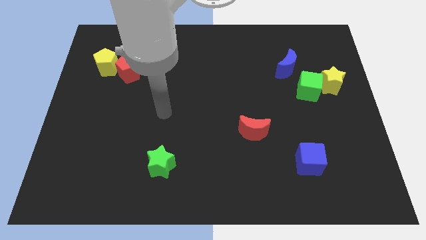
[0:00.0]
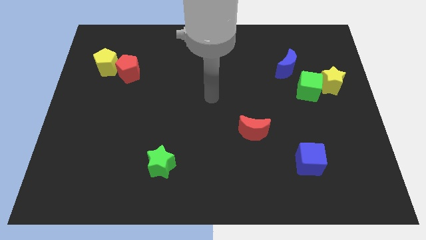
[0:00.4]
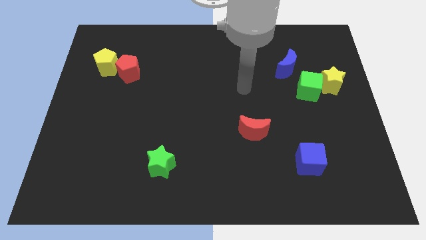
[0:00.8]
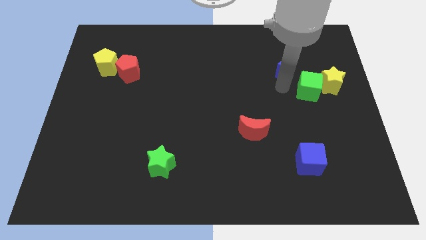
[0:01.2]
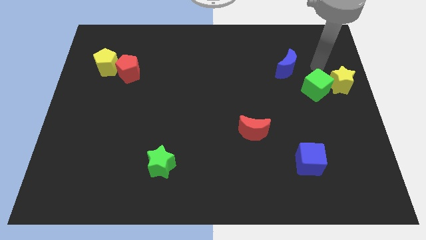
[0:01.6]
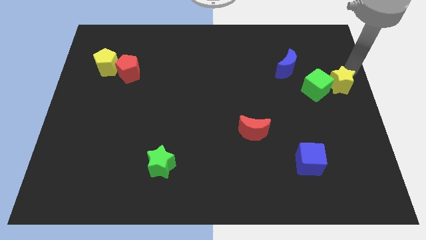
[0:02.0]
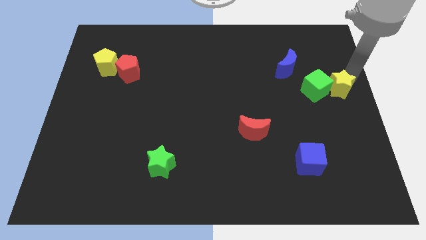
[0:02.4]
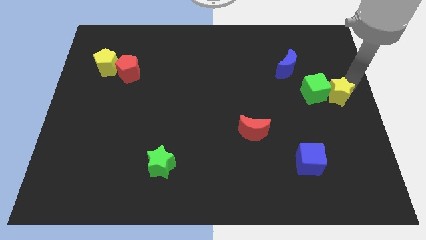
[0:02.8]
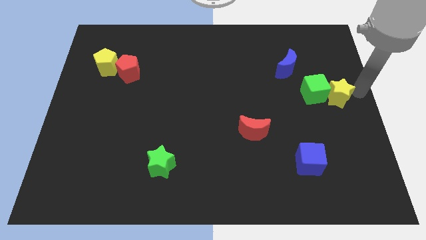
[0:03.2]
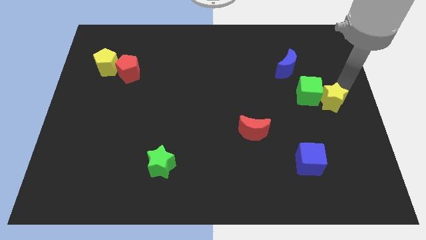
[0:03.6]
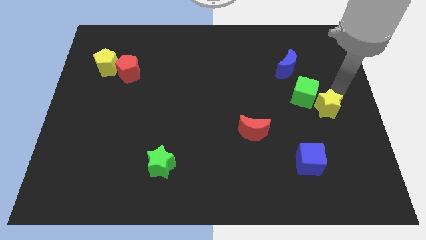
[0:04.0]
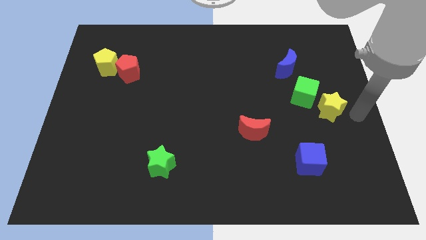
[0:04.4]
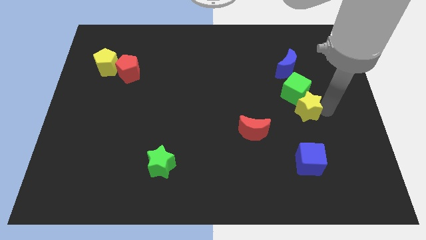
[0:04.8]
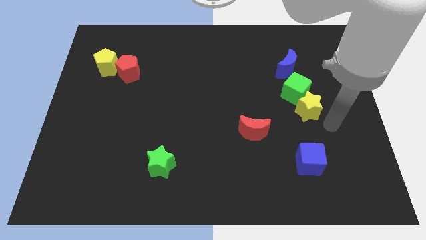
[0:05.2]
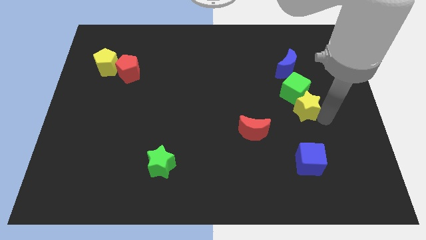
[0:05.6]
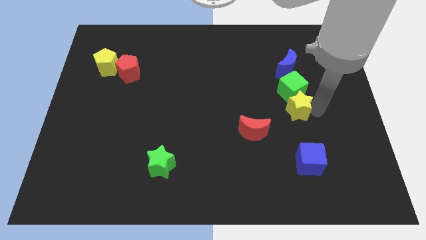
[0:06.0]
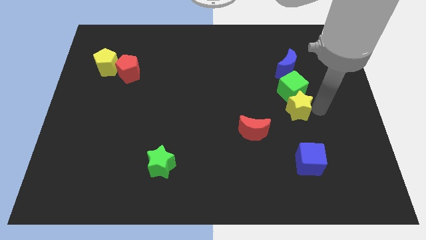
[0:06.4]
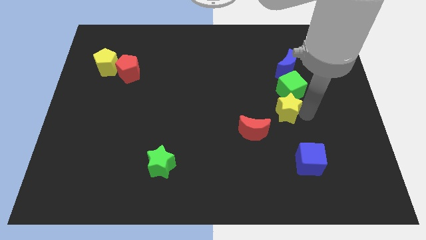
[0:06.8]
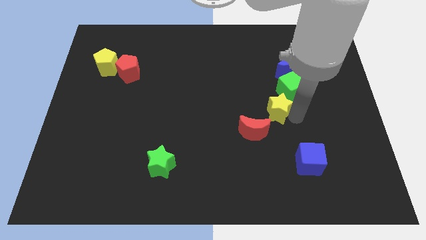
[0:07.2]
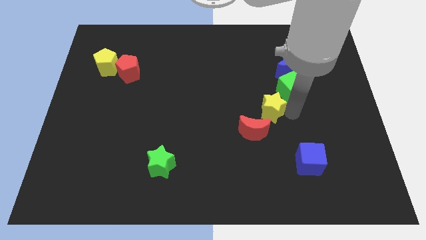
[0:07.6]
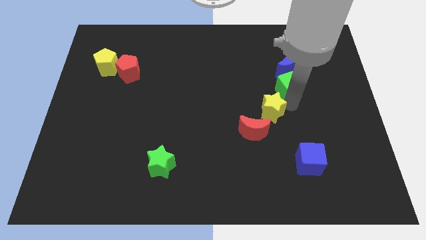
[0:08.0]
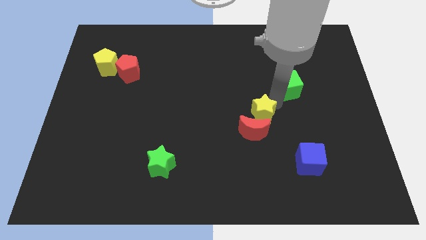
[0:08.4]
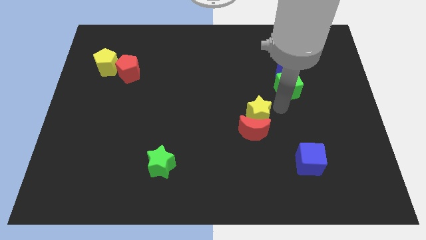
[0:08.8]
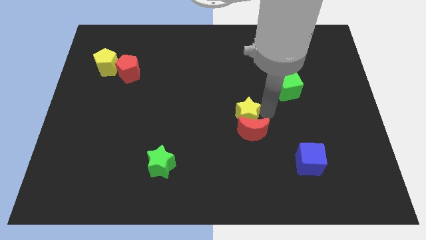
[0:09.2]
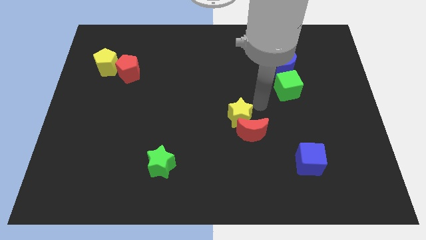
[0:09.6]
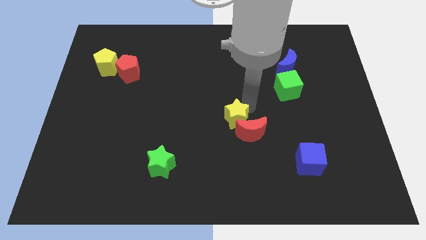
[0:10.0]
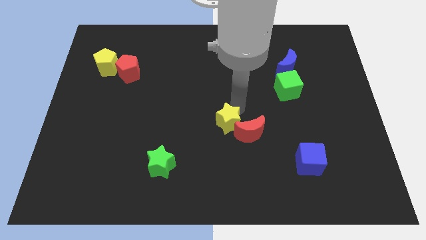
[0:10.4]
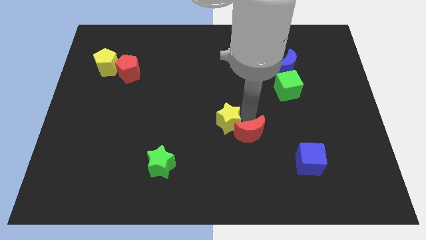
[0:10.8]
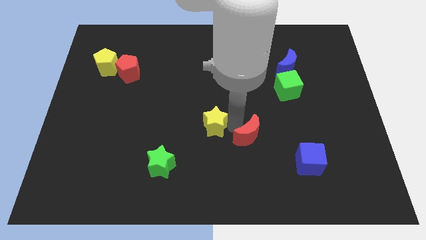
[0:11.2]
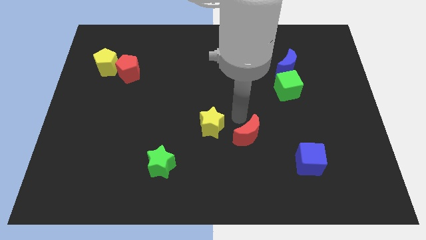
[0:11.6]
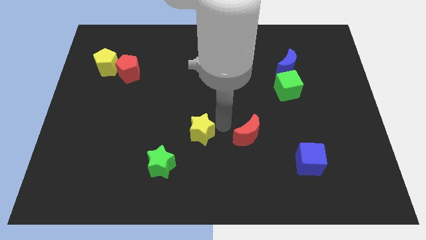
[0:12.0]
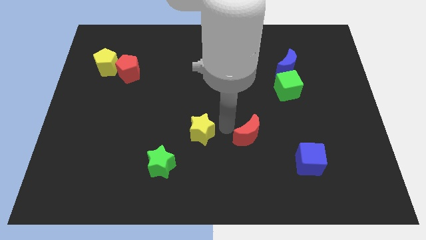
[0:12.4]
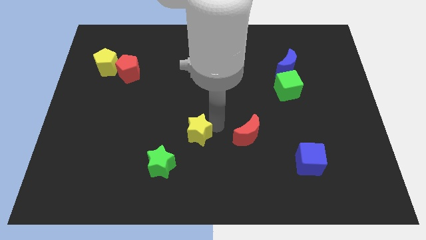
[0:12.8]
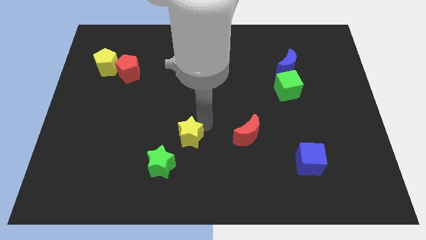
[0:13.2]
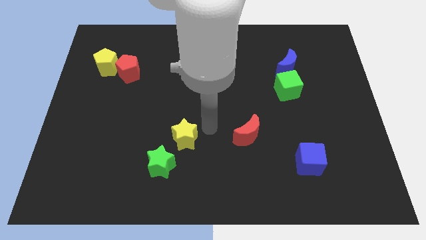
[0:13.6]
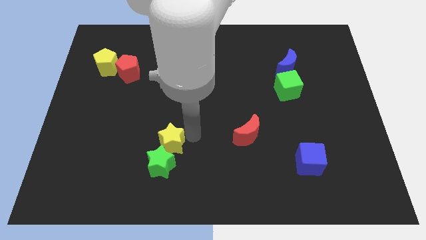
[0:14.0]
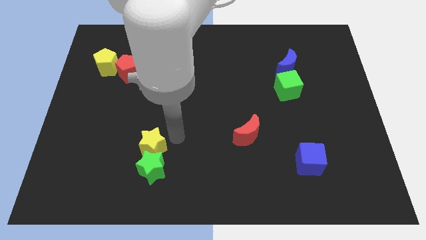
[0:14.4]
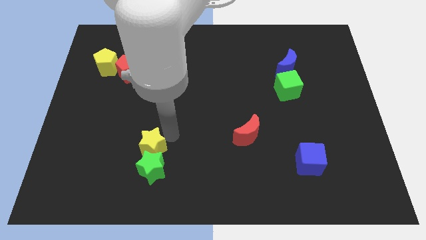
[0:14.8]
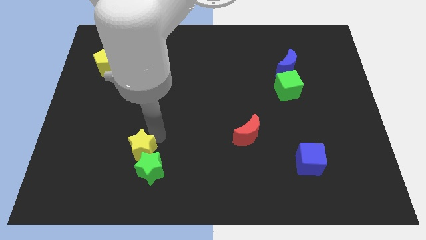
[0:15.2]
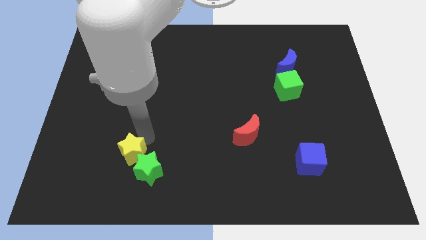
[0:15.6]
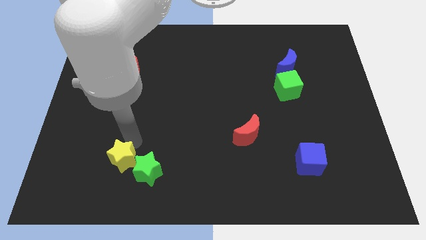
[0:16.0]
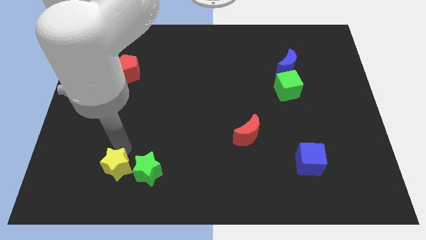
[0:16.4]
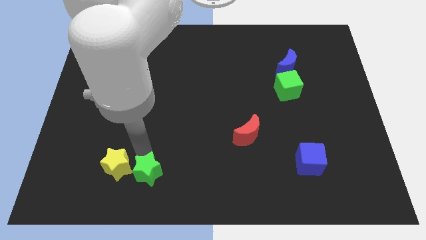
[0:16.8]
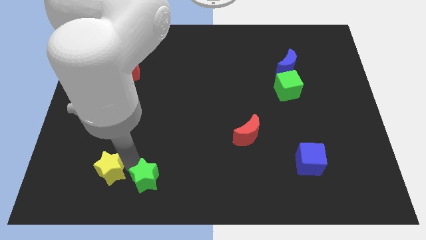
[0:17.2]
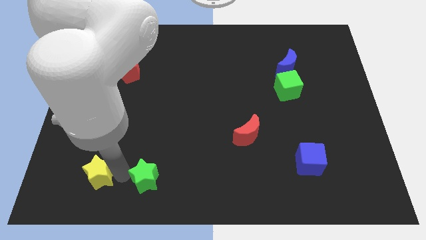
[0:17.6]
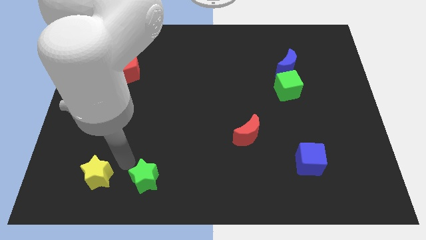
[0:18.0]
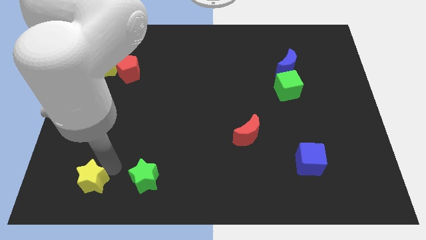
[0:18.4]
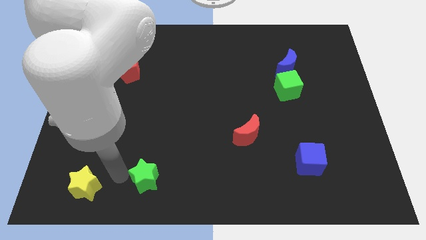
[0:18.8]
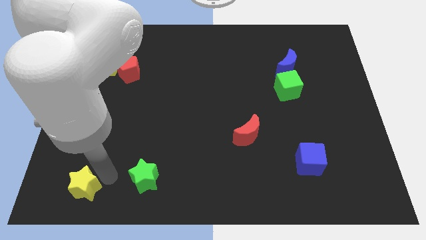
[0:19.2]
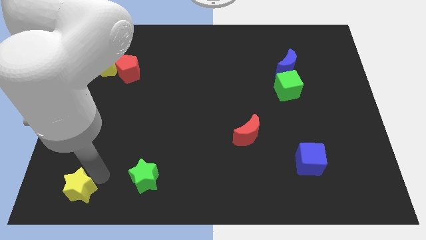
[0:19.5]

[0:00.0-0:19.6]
push the yellow star to the bottom left corner

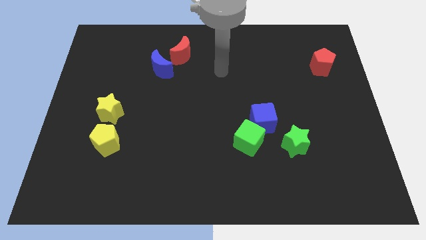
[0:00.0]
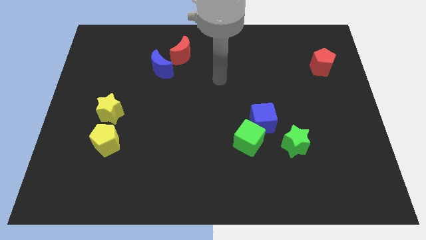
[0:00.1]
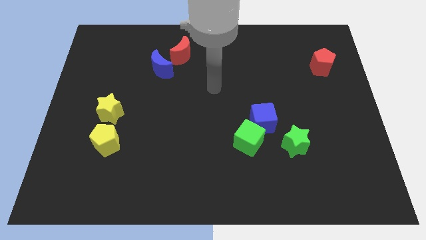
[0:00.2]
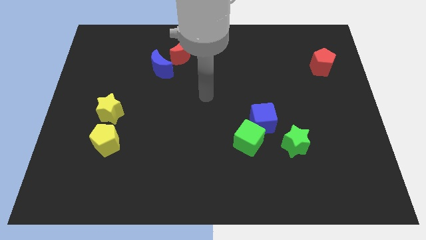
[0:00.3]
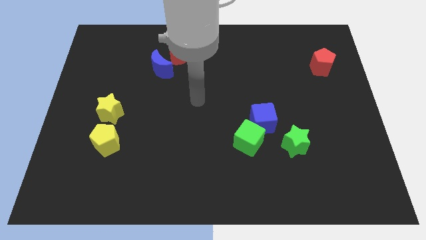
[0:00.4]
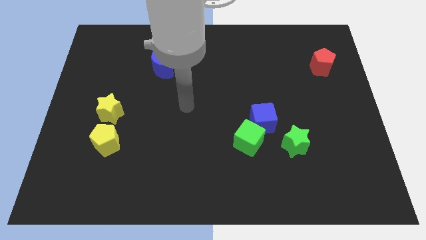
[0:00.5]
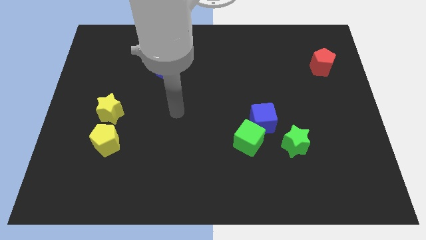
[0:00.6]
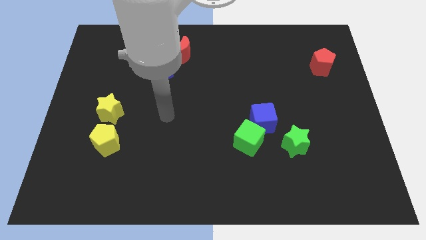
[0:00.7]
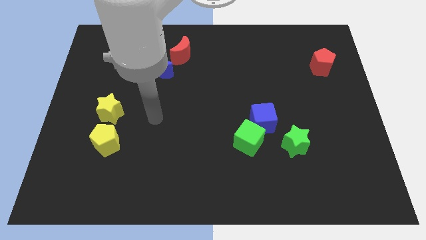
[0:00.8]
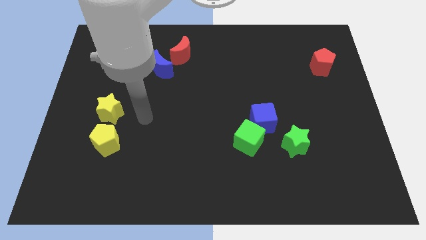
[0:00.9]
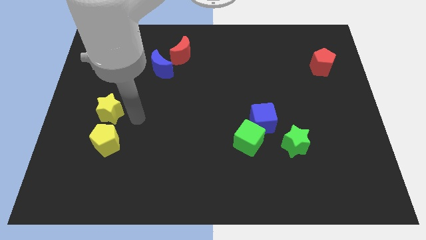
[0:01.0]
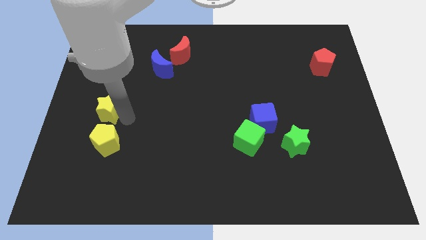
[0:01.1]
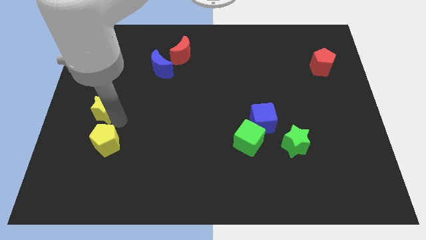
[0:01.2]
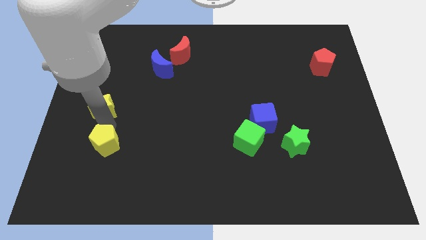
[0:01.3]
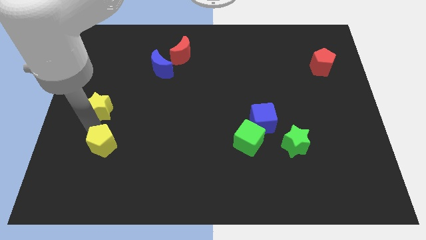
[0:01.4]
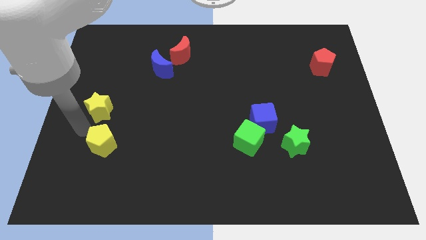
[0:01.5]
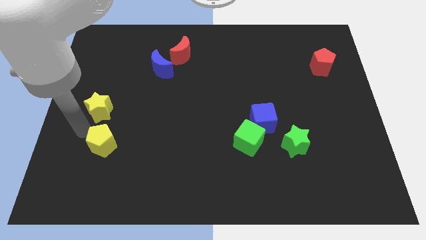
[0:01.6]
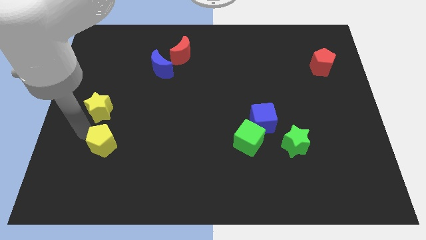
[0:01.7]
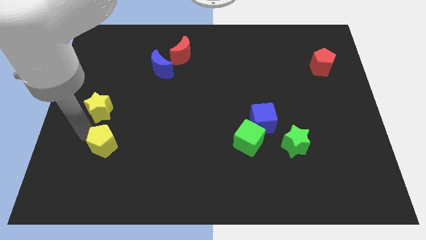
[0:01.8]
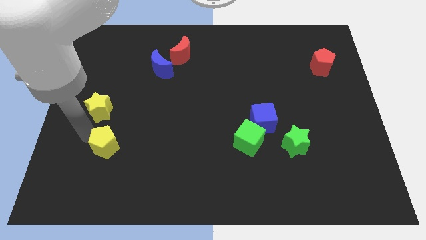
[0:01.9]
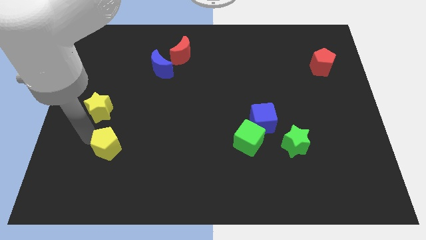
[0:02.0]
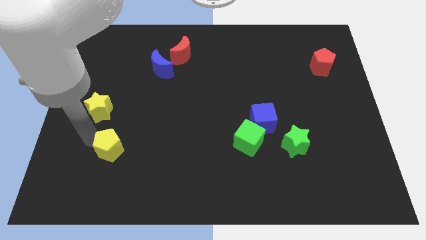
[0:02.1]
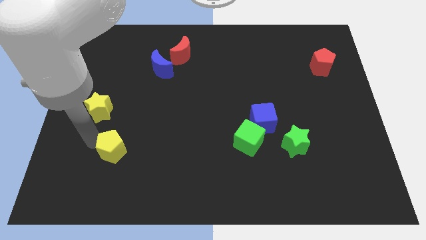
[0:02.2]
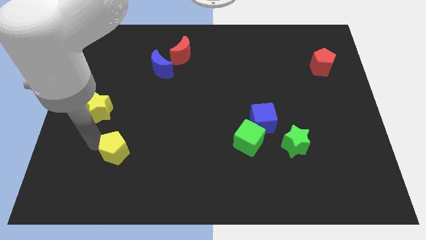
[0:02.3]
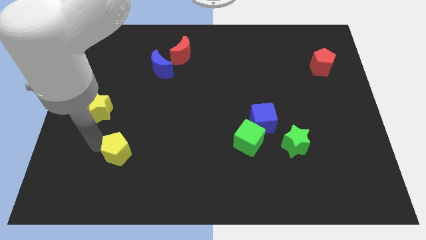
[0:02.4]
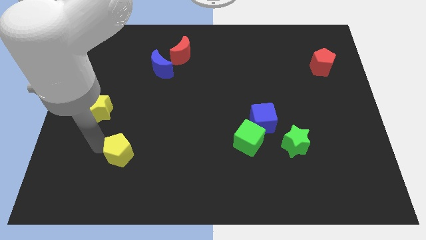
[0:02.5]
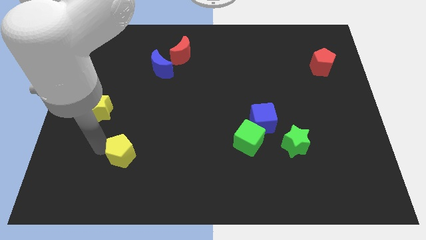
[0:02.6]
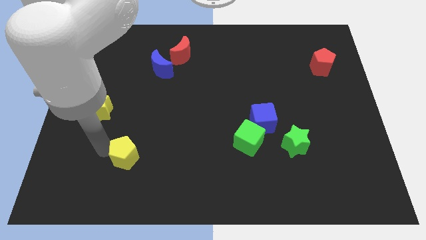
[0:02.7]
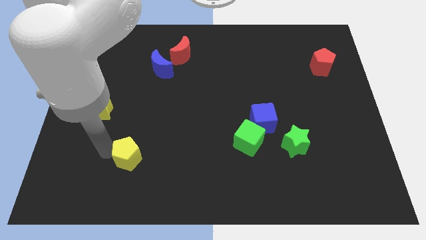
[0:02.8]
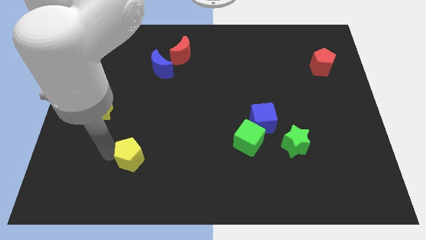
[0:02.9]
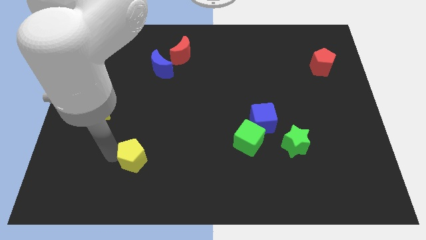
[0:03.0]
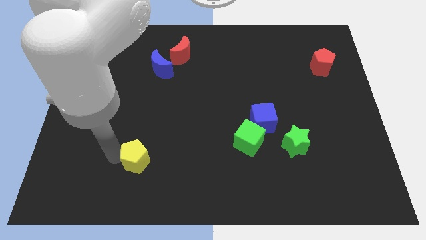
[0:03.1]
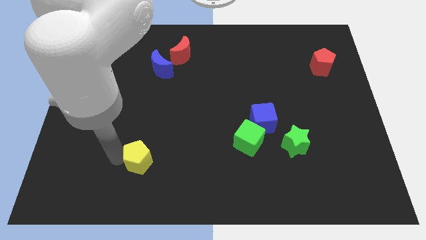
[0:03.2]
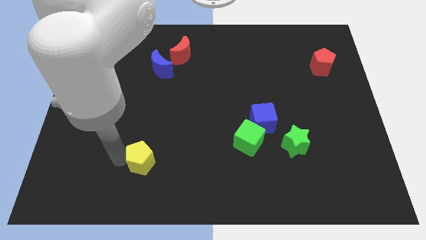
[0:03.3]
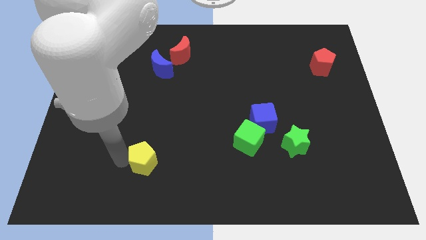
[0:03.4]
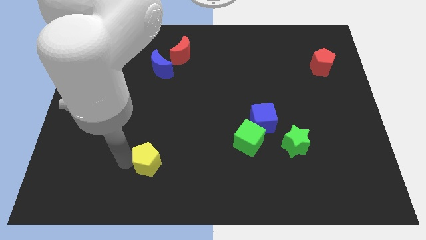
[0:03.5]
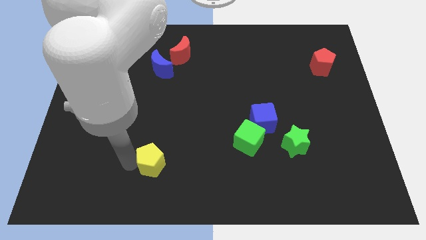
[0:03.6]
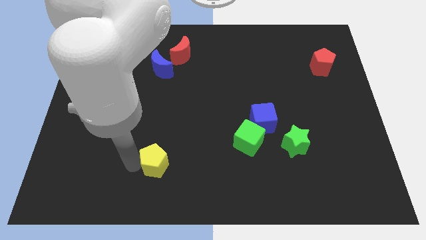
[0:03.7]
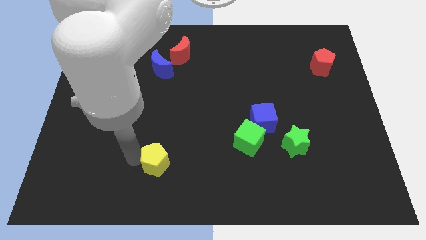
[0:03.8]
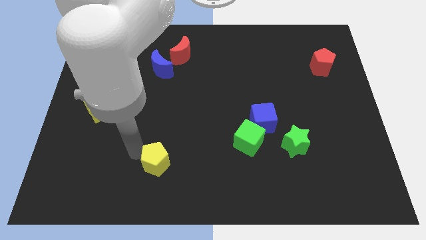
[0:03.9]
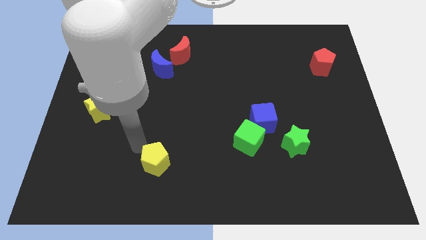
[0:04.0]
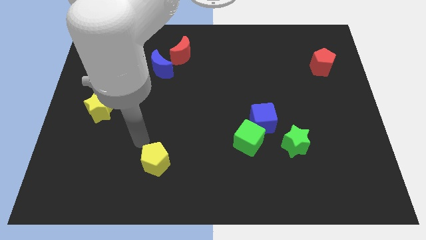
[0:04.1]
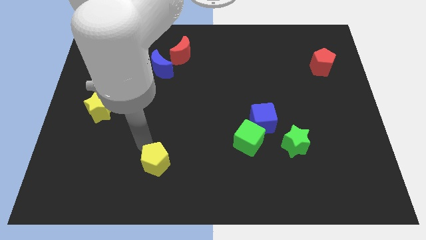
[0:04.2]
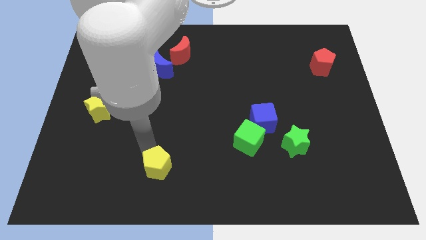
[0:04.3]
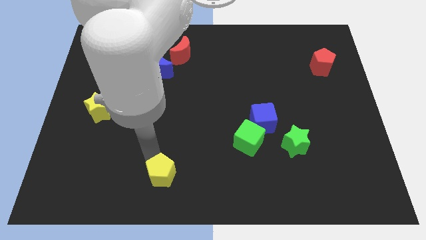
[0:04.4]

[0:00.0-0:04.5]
move the yellow pentagon to the bottom side
